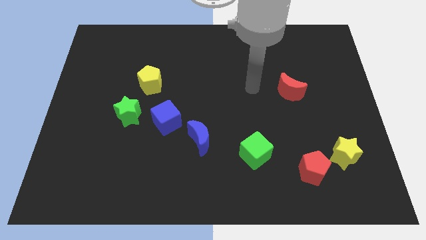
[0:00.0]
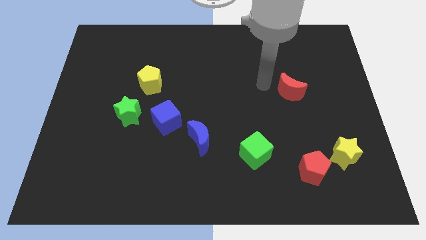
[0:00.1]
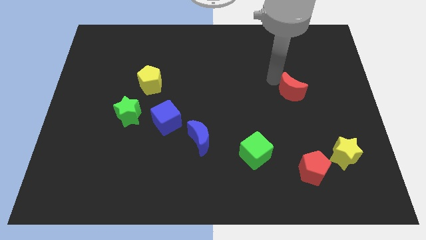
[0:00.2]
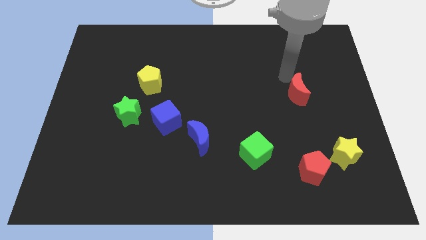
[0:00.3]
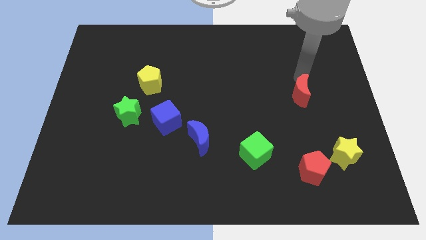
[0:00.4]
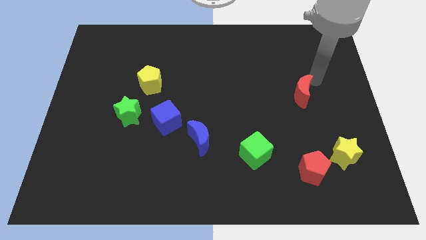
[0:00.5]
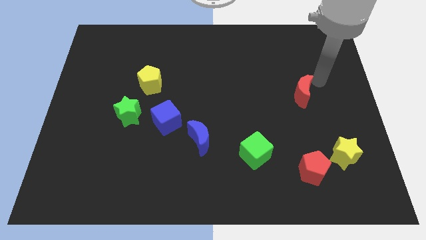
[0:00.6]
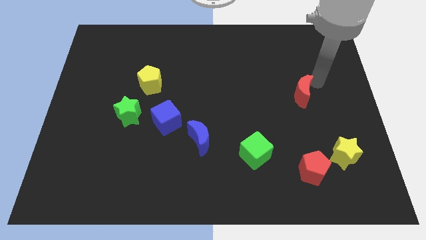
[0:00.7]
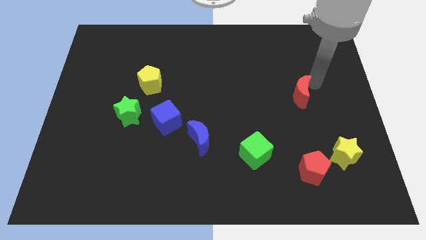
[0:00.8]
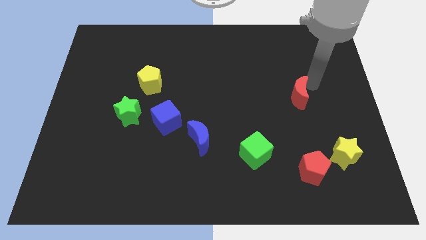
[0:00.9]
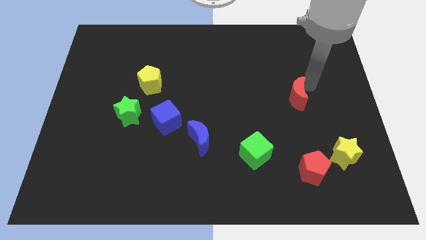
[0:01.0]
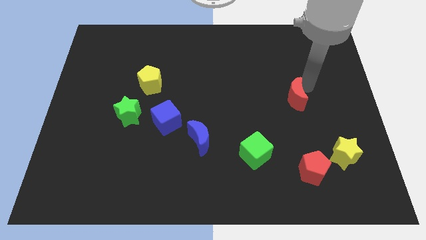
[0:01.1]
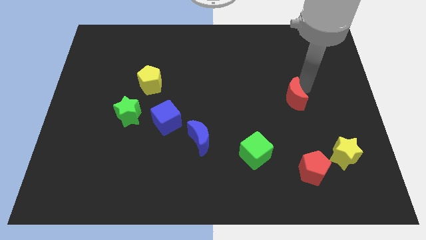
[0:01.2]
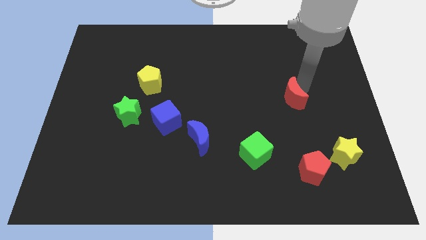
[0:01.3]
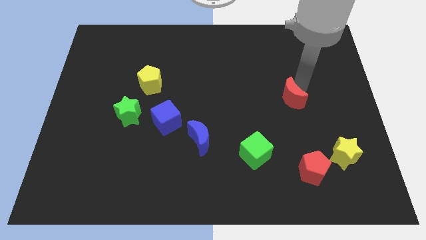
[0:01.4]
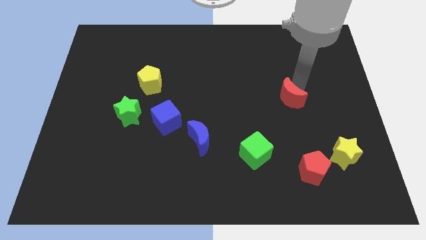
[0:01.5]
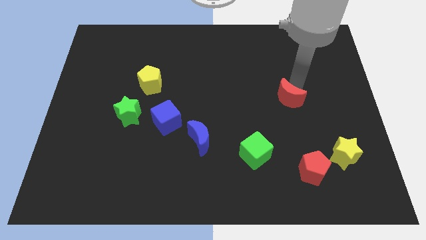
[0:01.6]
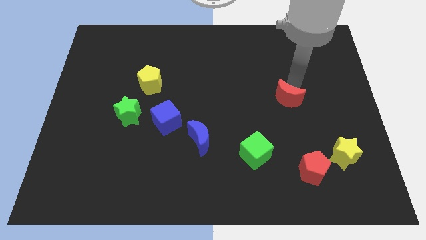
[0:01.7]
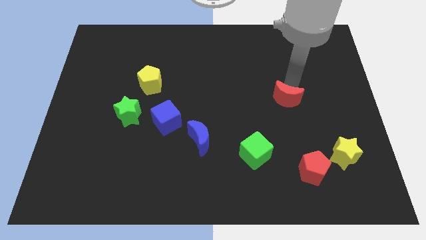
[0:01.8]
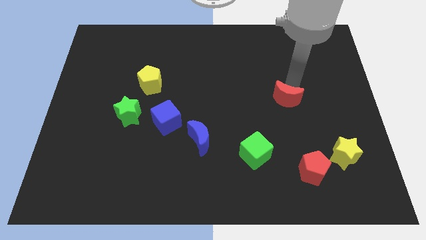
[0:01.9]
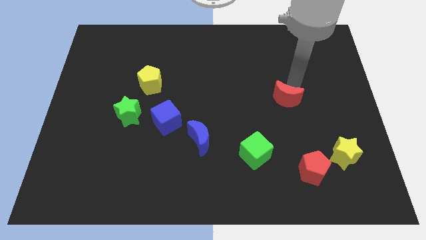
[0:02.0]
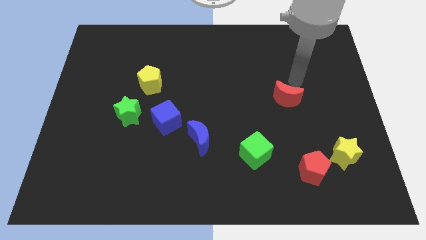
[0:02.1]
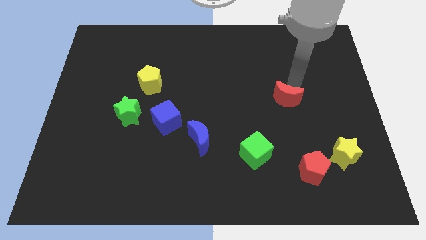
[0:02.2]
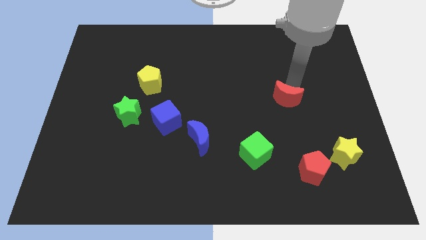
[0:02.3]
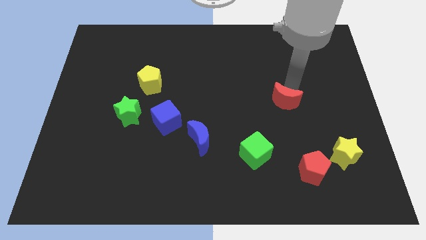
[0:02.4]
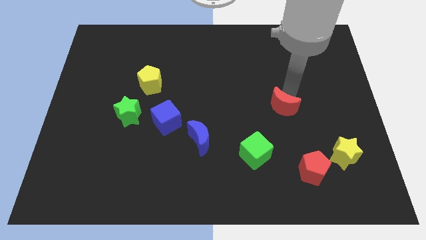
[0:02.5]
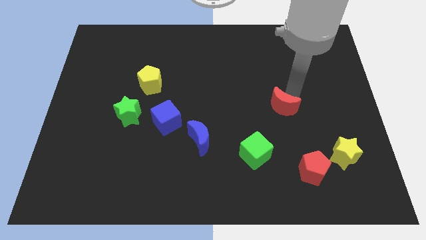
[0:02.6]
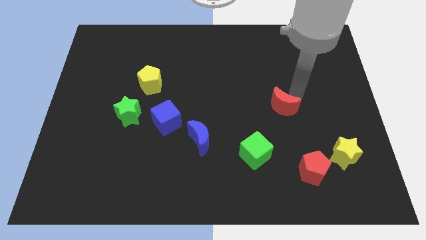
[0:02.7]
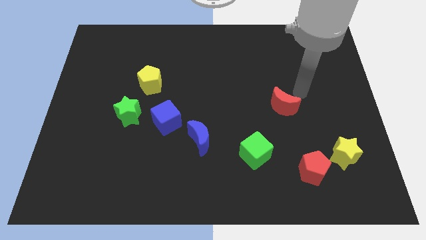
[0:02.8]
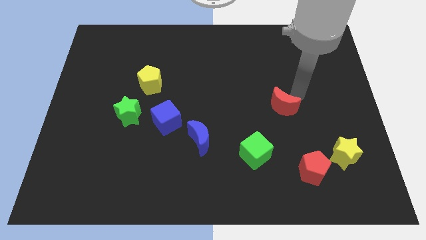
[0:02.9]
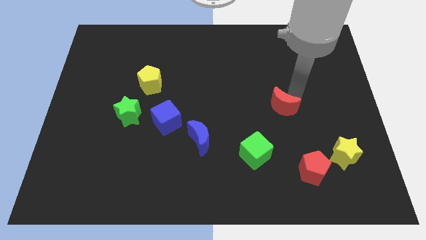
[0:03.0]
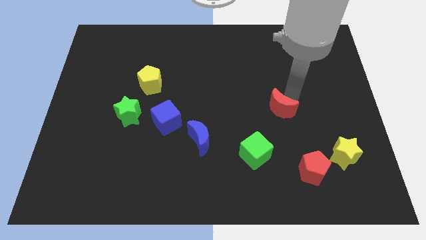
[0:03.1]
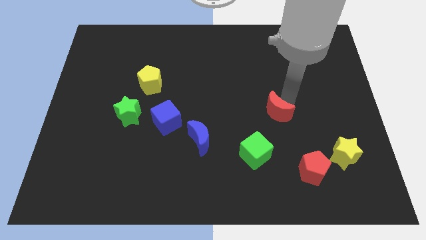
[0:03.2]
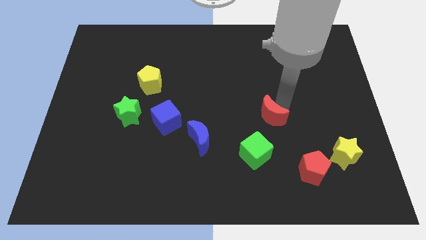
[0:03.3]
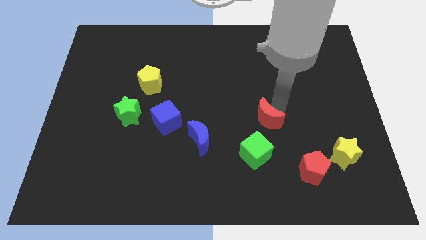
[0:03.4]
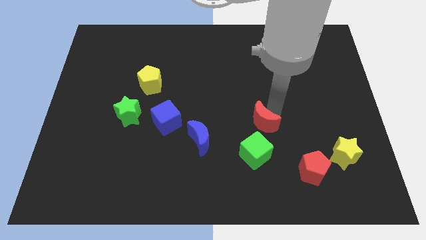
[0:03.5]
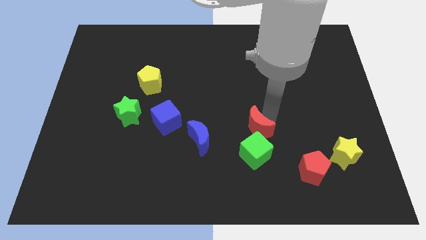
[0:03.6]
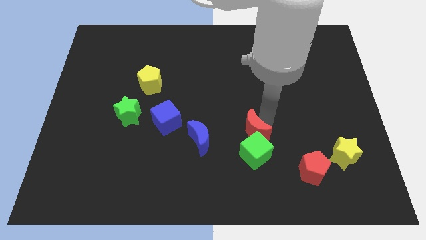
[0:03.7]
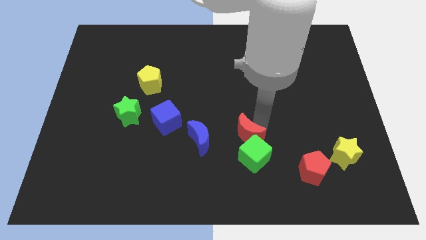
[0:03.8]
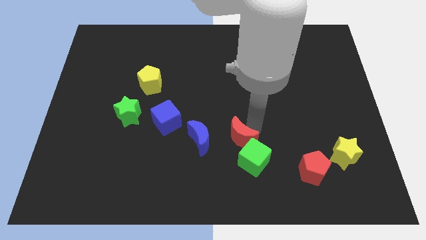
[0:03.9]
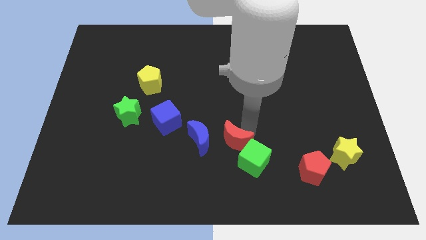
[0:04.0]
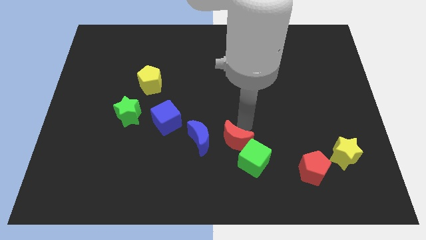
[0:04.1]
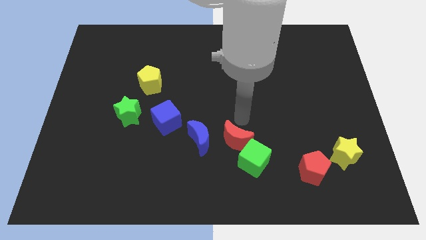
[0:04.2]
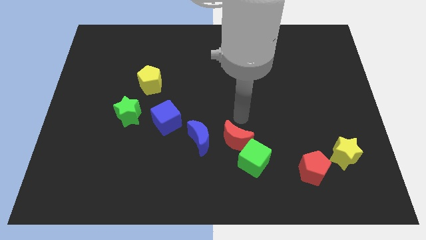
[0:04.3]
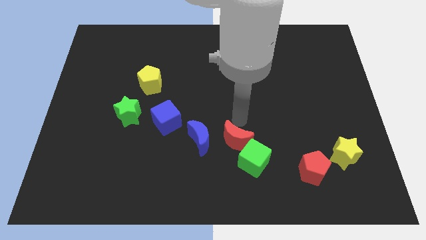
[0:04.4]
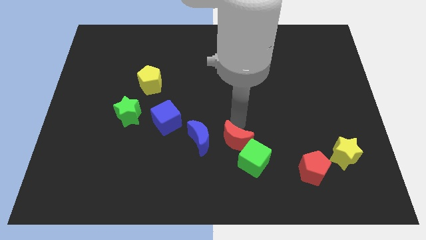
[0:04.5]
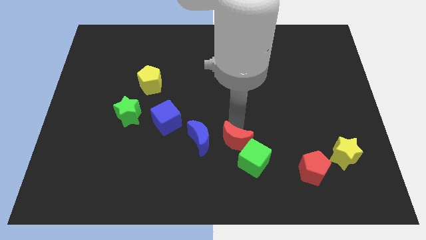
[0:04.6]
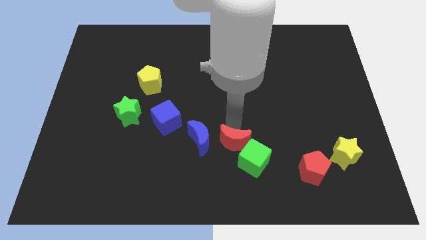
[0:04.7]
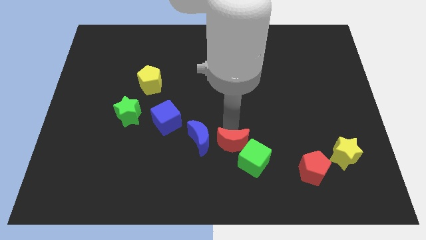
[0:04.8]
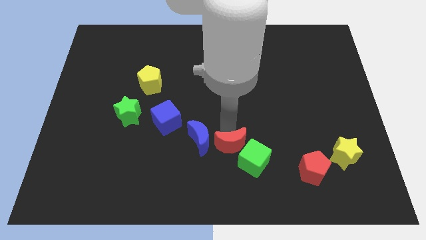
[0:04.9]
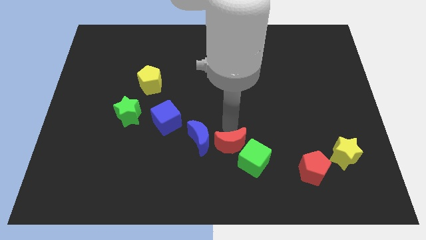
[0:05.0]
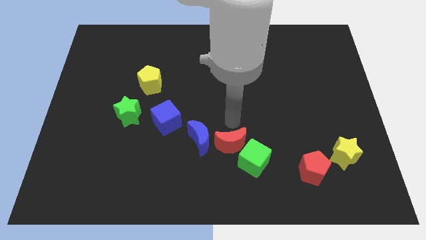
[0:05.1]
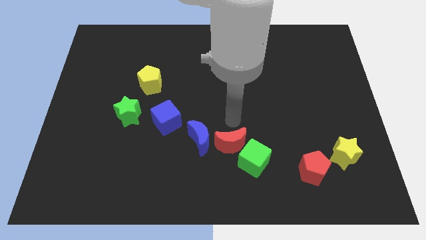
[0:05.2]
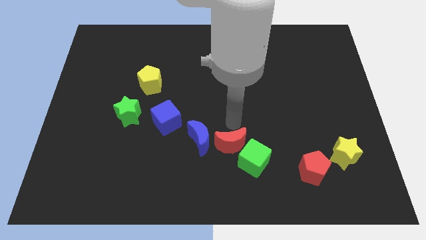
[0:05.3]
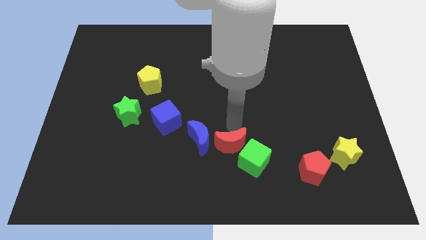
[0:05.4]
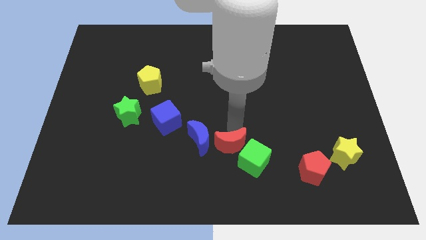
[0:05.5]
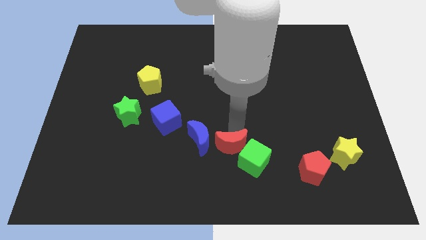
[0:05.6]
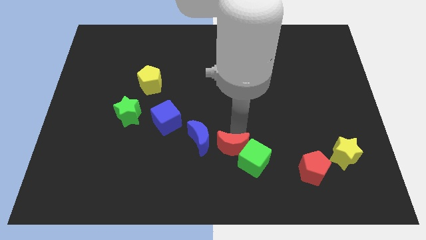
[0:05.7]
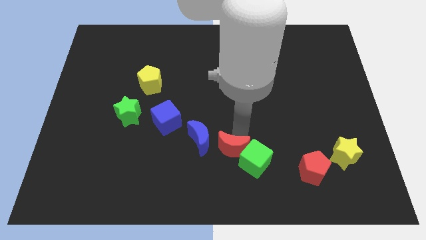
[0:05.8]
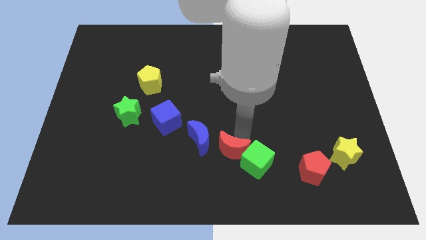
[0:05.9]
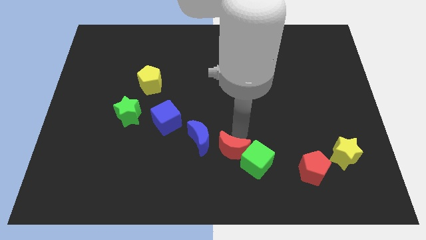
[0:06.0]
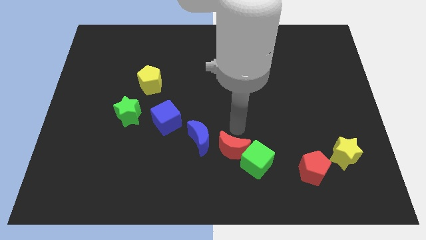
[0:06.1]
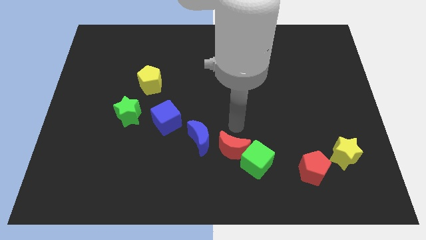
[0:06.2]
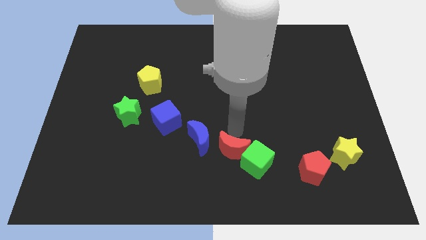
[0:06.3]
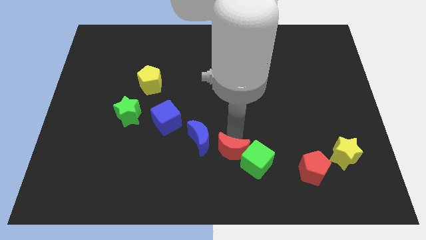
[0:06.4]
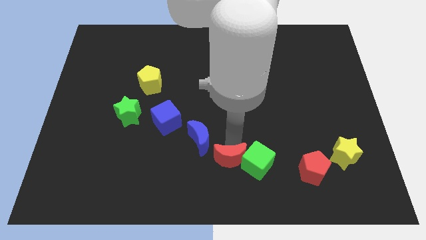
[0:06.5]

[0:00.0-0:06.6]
move the red moon to the bottom side
